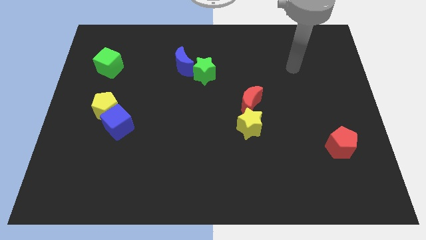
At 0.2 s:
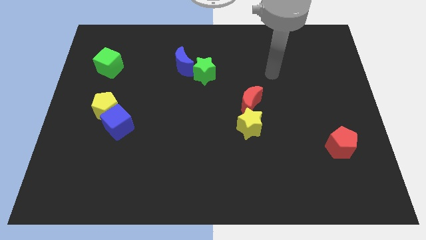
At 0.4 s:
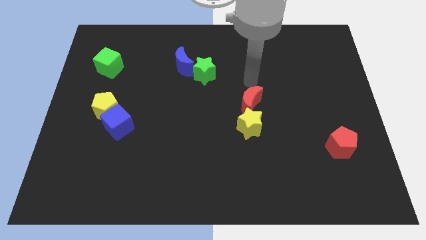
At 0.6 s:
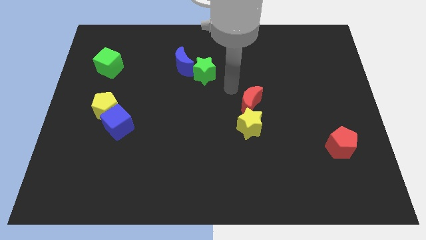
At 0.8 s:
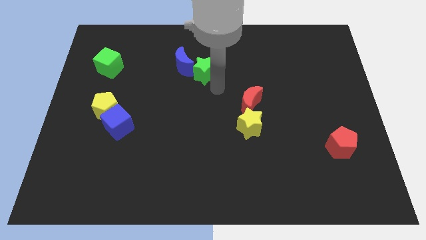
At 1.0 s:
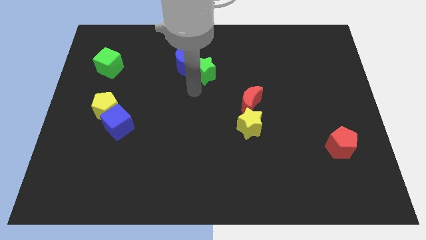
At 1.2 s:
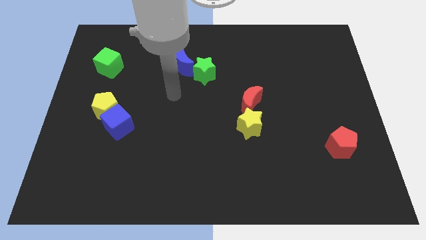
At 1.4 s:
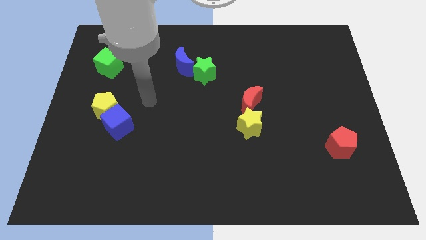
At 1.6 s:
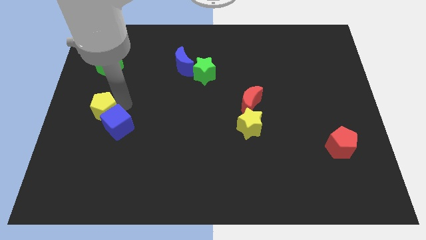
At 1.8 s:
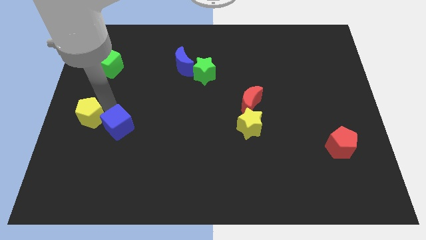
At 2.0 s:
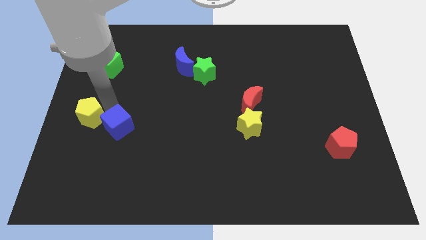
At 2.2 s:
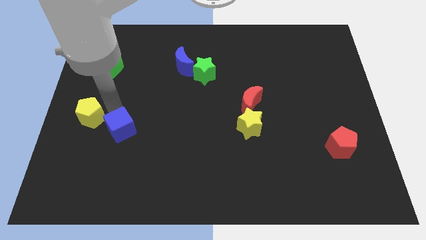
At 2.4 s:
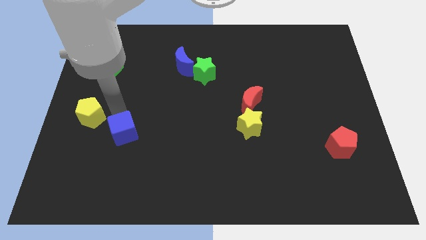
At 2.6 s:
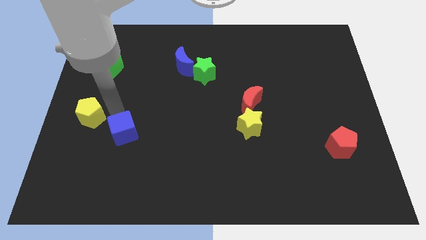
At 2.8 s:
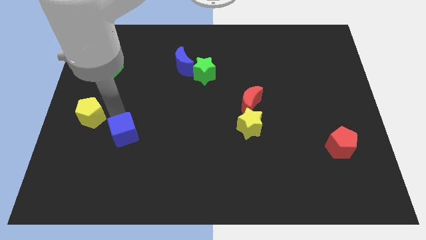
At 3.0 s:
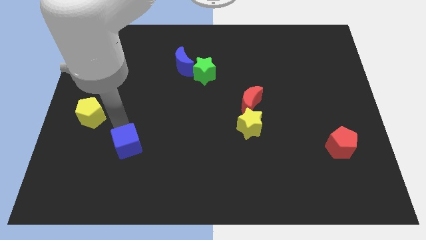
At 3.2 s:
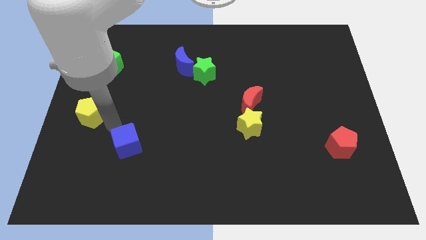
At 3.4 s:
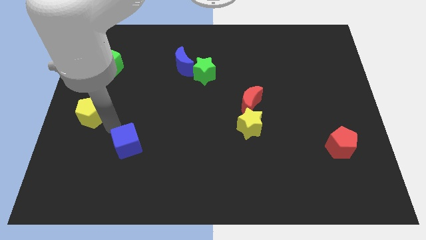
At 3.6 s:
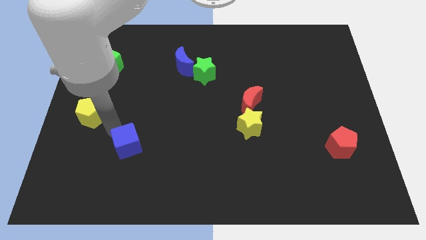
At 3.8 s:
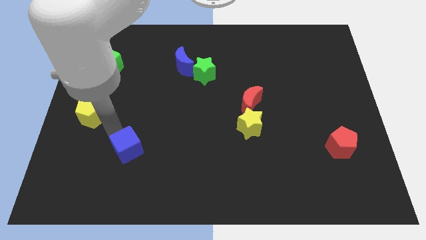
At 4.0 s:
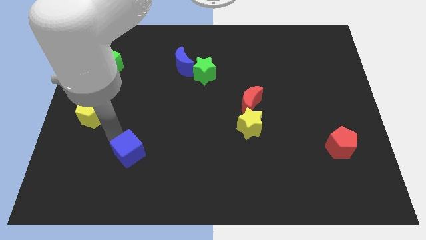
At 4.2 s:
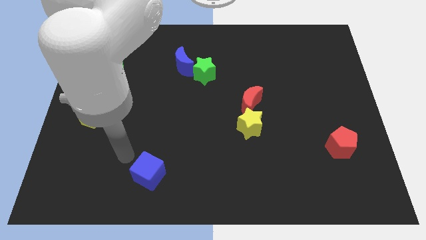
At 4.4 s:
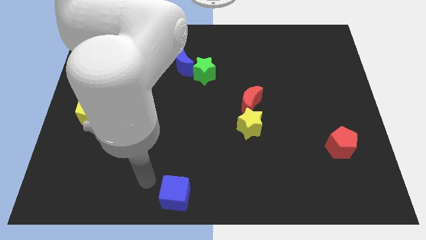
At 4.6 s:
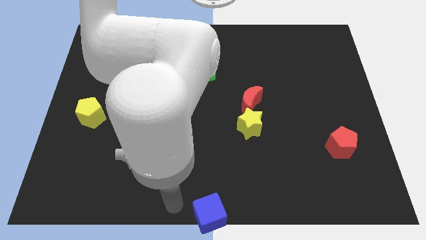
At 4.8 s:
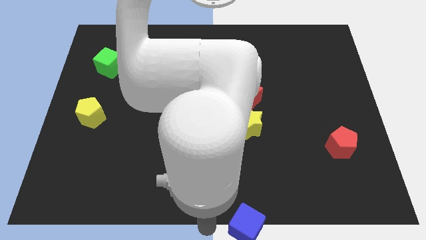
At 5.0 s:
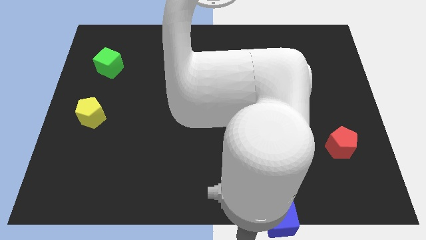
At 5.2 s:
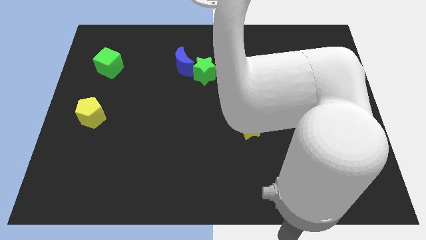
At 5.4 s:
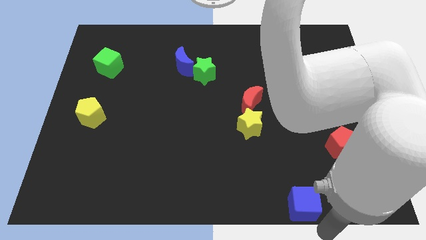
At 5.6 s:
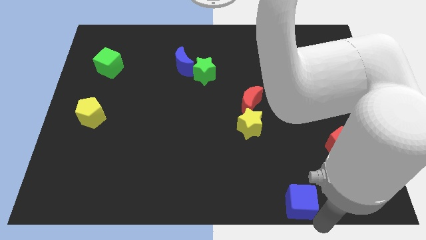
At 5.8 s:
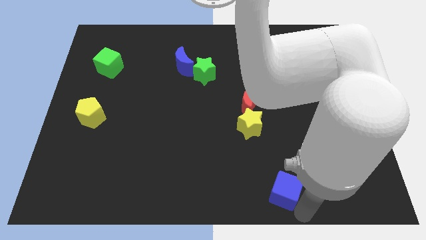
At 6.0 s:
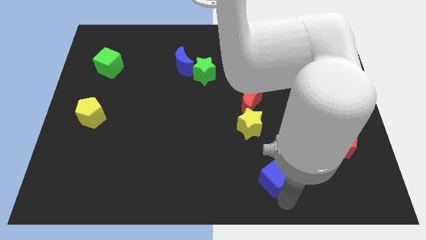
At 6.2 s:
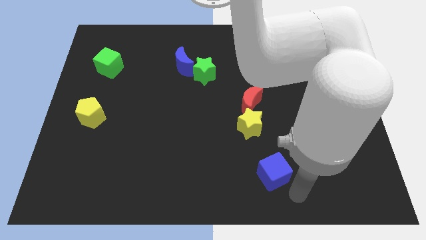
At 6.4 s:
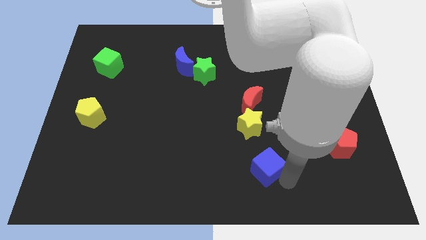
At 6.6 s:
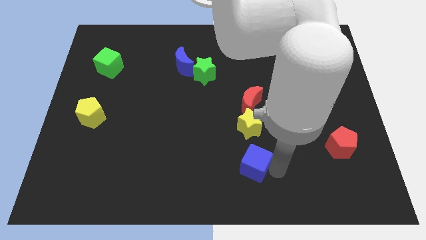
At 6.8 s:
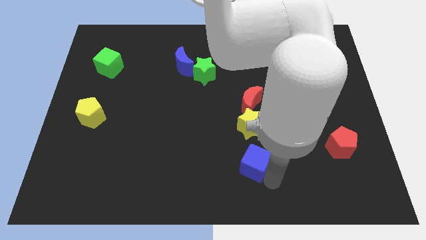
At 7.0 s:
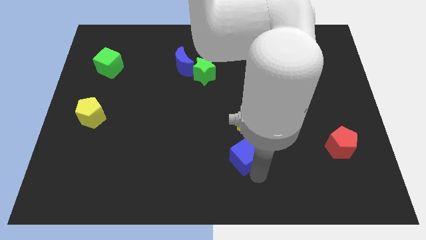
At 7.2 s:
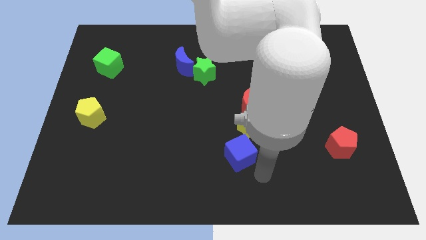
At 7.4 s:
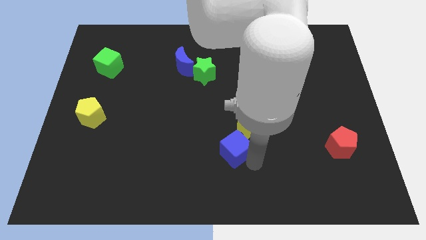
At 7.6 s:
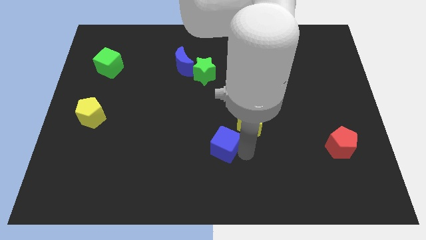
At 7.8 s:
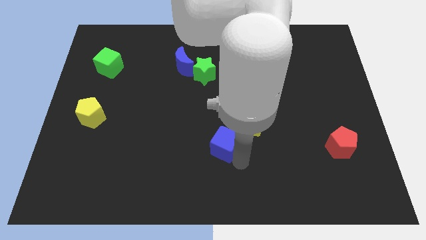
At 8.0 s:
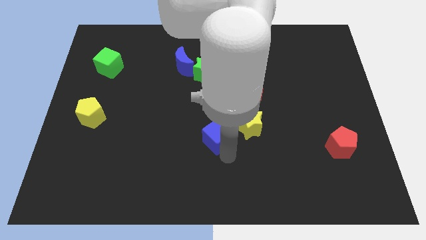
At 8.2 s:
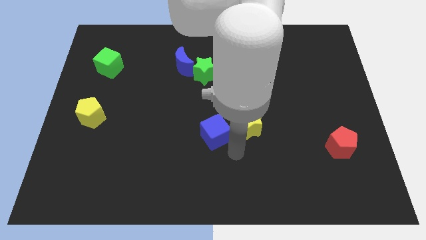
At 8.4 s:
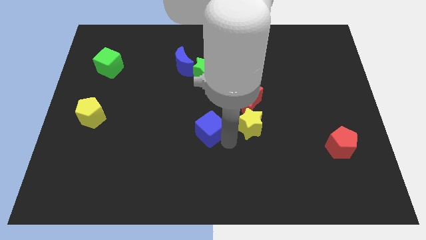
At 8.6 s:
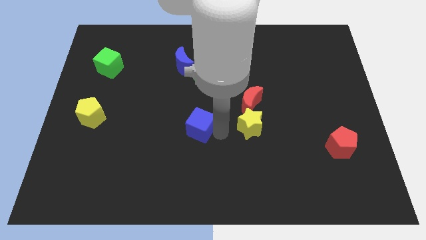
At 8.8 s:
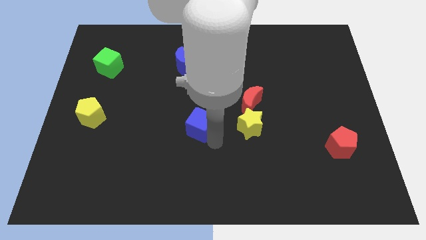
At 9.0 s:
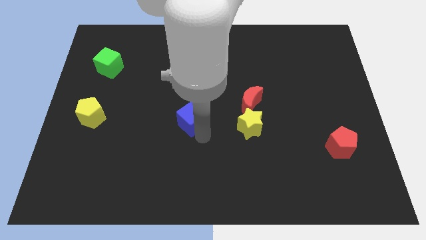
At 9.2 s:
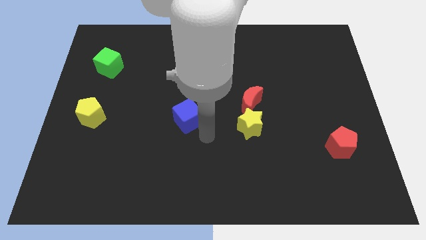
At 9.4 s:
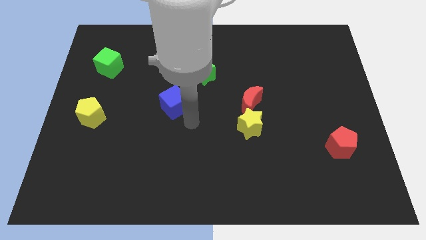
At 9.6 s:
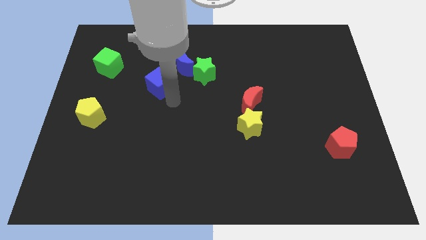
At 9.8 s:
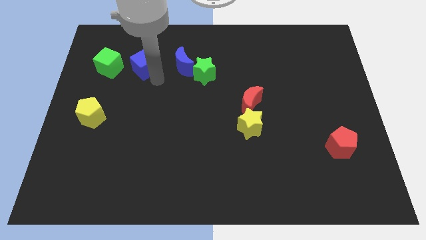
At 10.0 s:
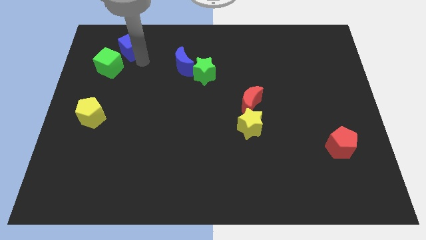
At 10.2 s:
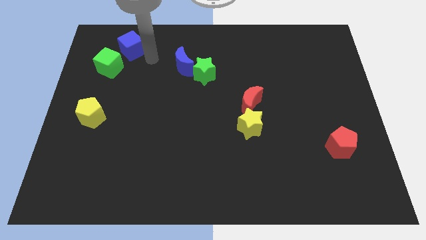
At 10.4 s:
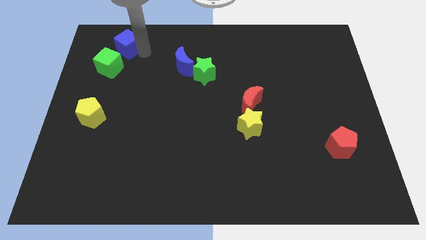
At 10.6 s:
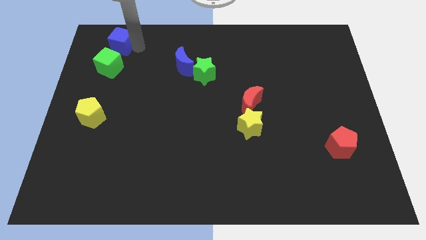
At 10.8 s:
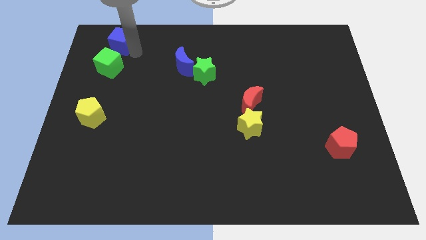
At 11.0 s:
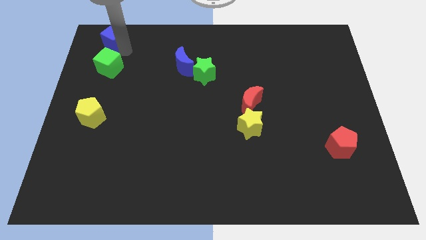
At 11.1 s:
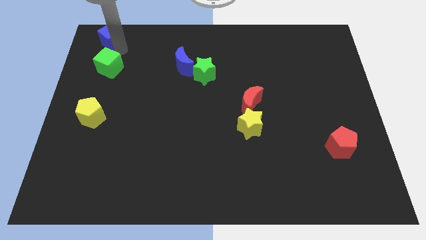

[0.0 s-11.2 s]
put the blue cube to the top left corner
